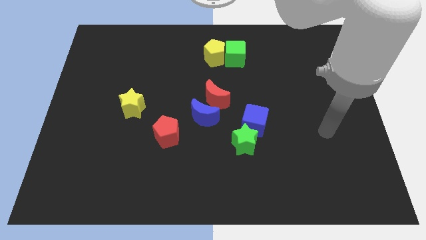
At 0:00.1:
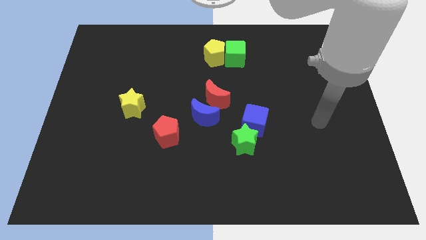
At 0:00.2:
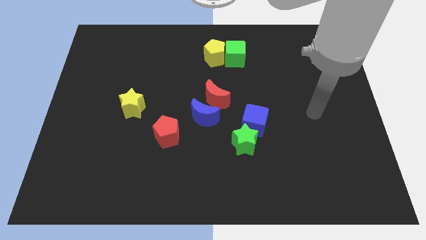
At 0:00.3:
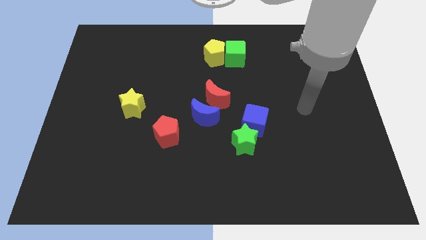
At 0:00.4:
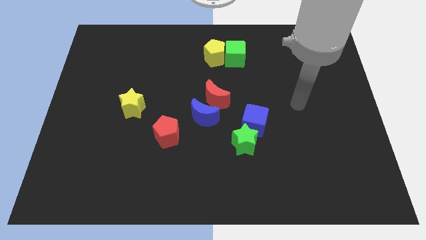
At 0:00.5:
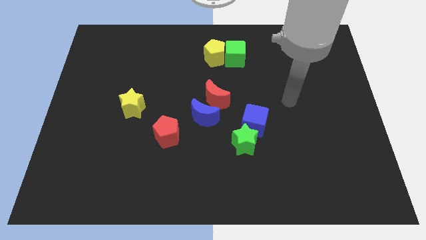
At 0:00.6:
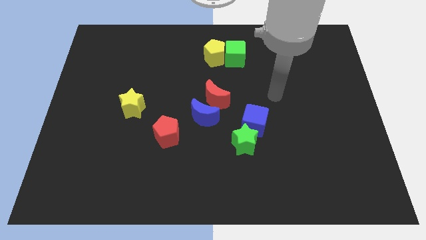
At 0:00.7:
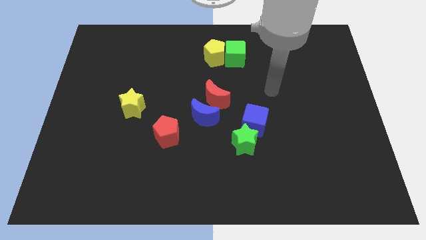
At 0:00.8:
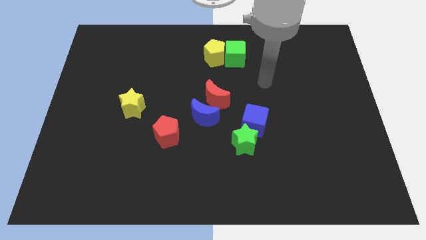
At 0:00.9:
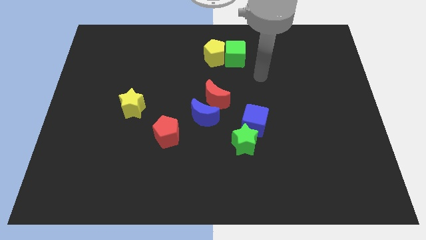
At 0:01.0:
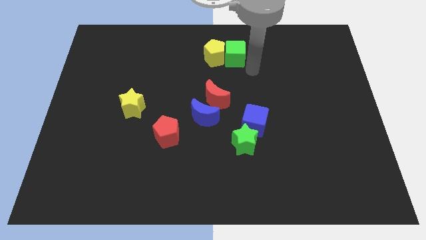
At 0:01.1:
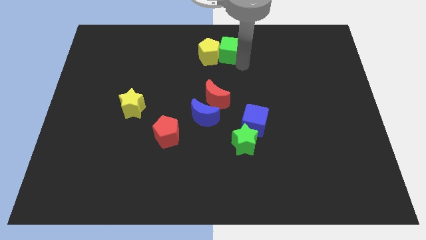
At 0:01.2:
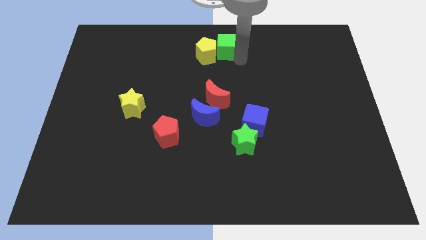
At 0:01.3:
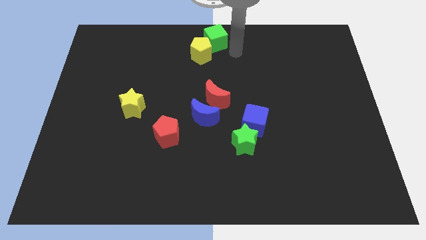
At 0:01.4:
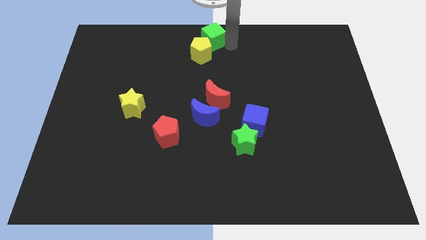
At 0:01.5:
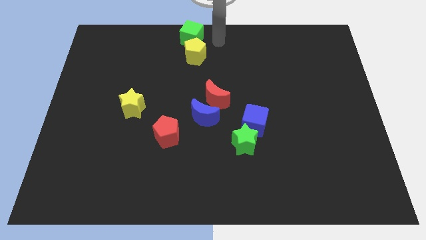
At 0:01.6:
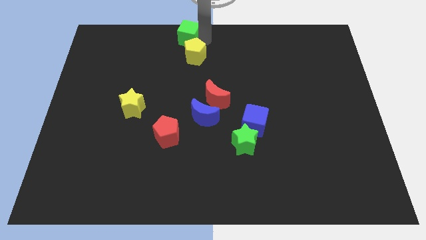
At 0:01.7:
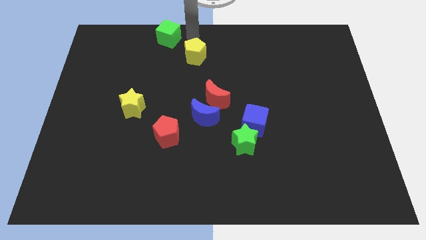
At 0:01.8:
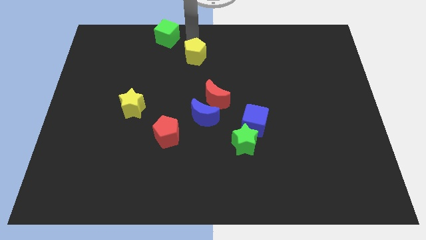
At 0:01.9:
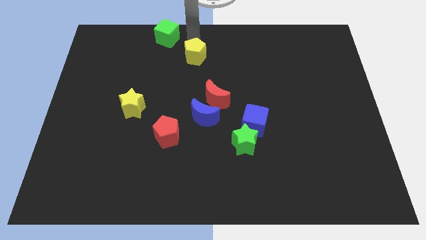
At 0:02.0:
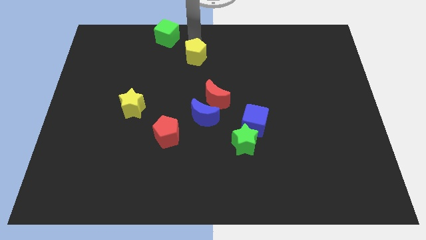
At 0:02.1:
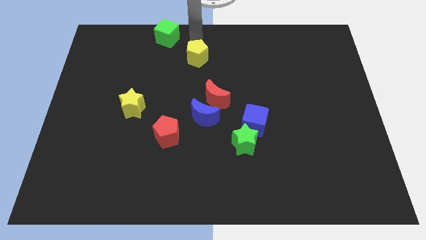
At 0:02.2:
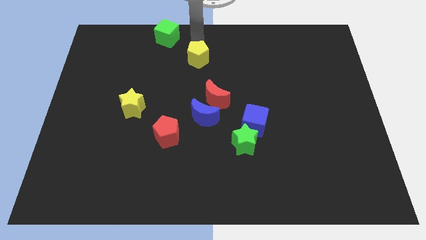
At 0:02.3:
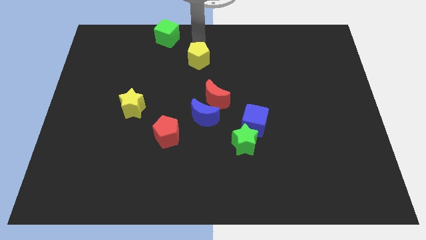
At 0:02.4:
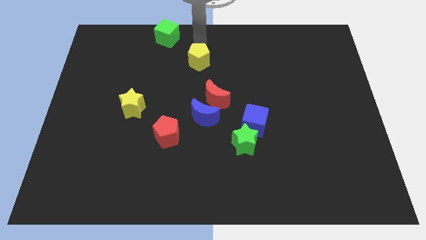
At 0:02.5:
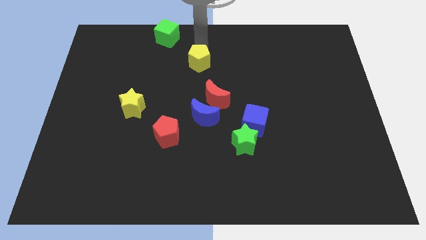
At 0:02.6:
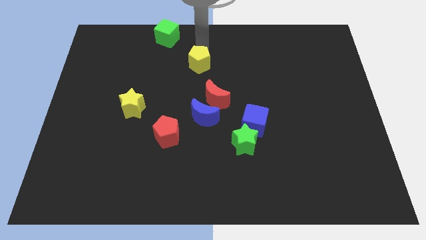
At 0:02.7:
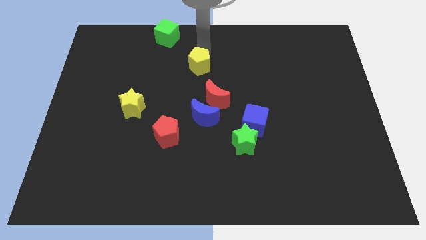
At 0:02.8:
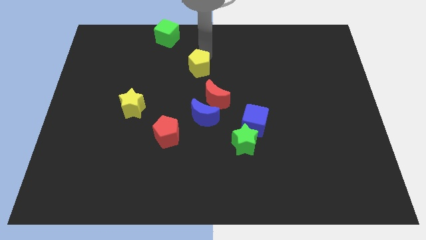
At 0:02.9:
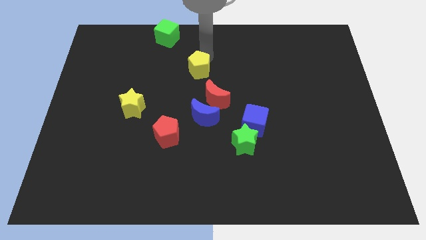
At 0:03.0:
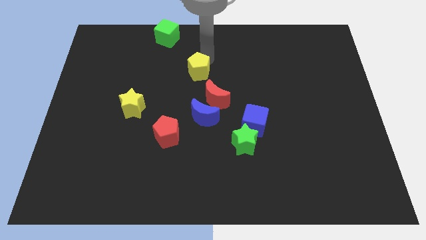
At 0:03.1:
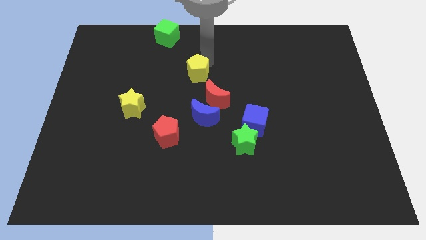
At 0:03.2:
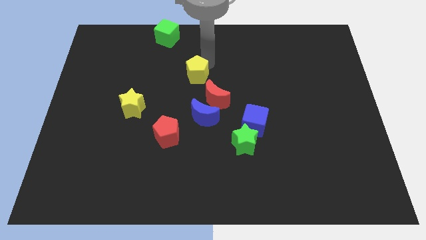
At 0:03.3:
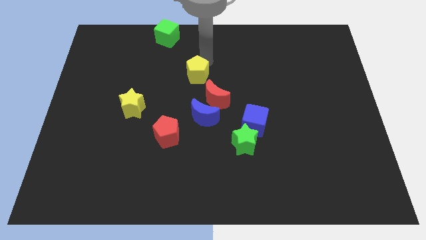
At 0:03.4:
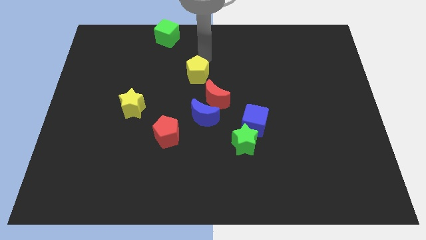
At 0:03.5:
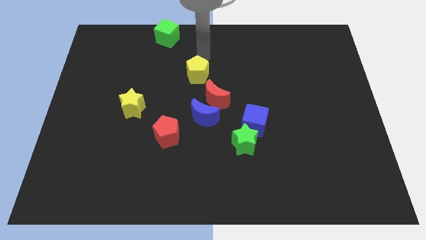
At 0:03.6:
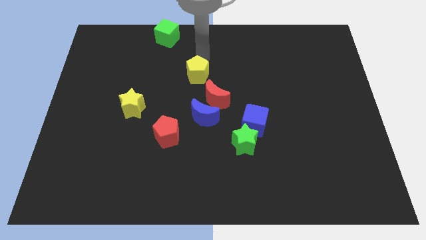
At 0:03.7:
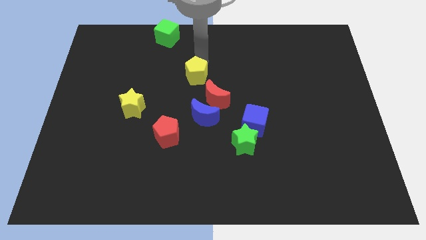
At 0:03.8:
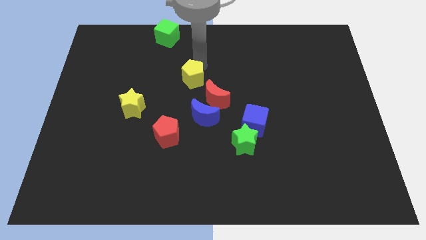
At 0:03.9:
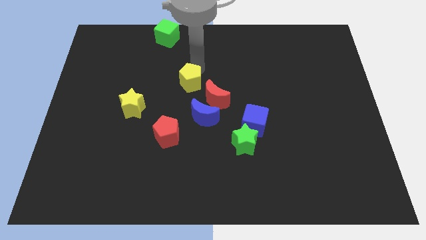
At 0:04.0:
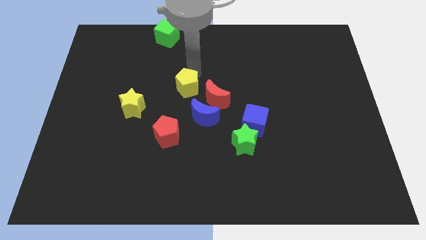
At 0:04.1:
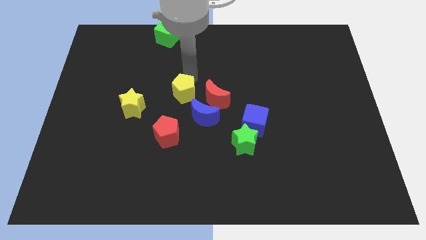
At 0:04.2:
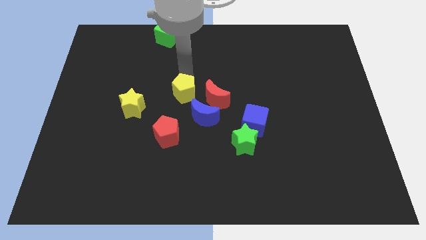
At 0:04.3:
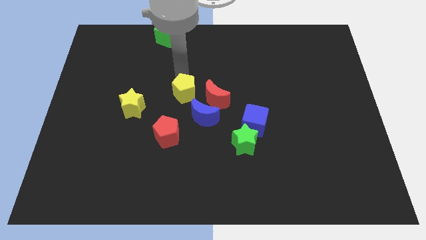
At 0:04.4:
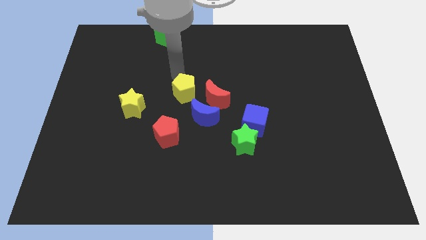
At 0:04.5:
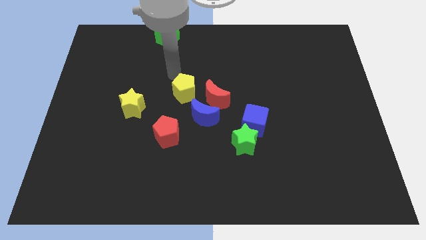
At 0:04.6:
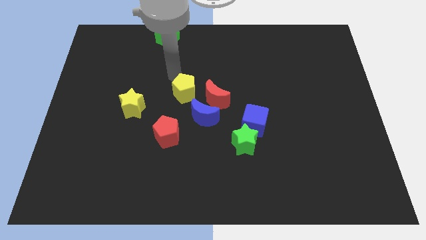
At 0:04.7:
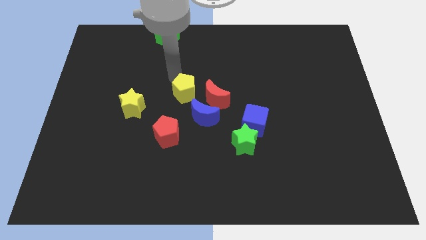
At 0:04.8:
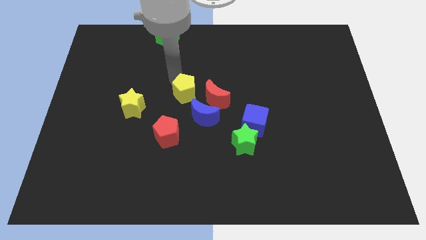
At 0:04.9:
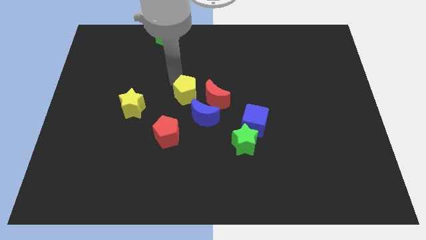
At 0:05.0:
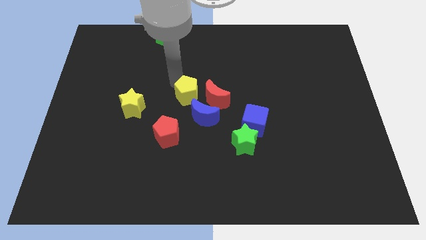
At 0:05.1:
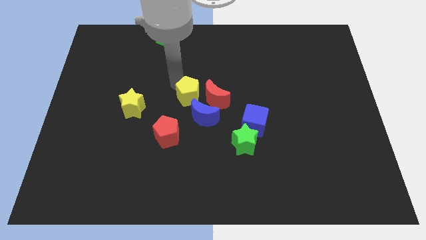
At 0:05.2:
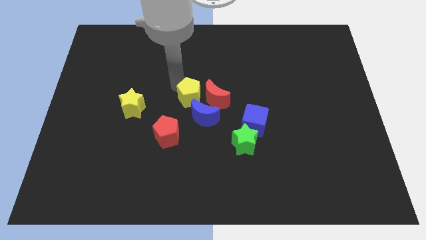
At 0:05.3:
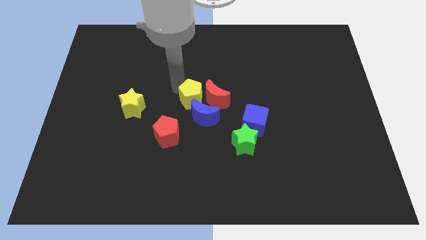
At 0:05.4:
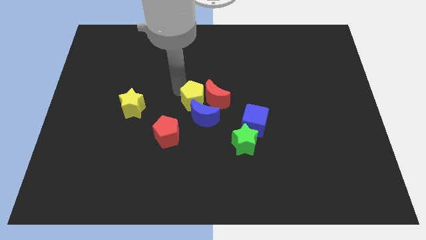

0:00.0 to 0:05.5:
push the yellow pentagon towards the blue moon

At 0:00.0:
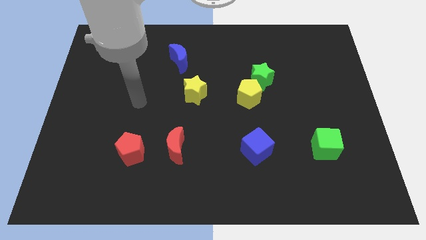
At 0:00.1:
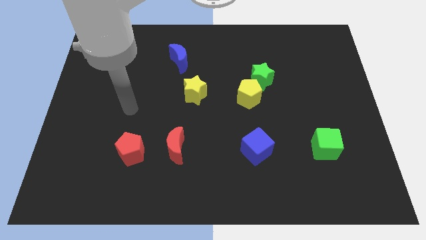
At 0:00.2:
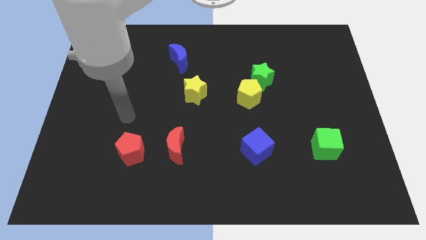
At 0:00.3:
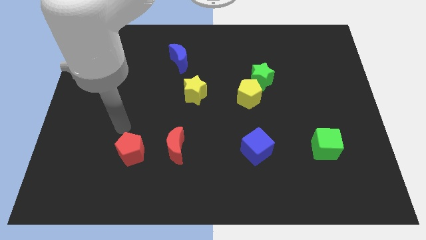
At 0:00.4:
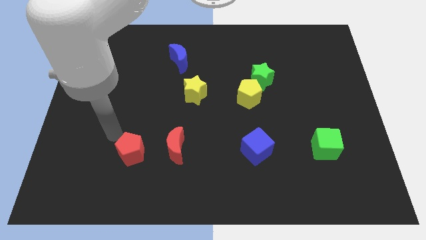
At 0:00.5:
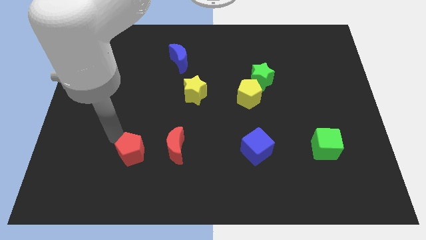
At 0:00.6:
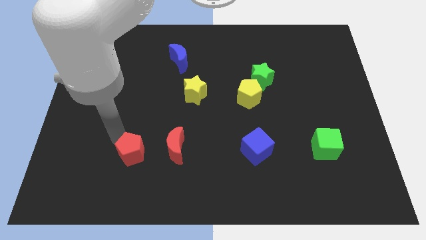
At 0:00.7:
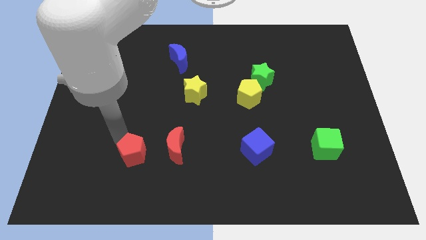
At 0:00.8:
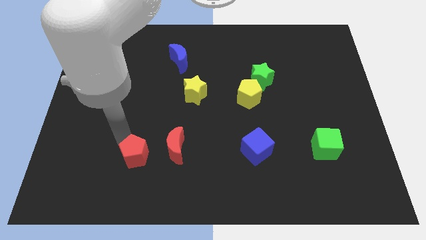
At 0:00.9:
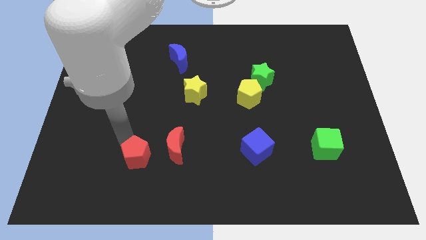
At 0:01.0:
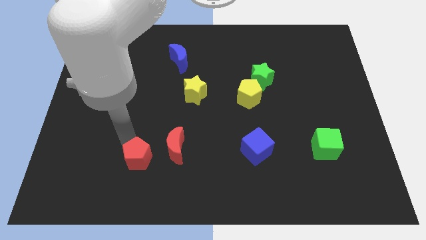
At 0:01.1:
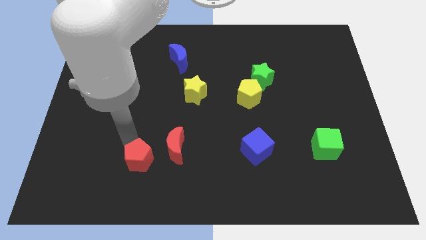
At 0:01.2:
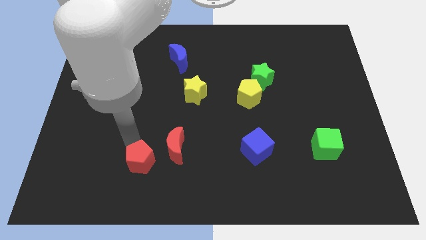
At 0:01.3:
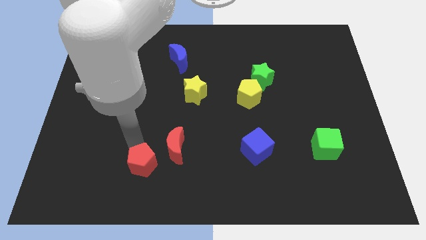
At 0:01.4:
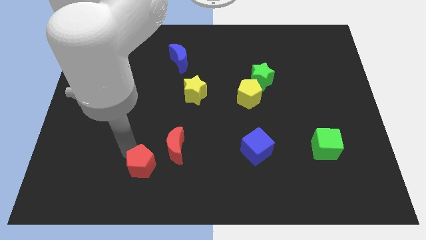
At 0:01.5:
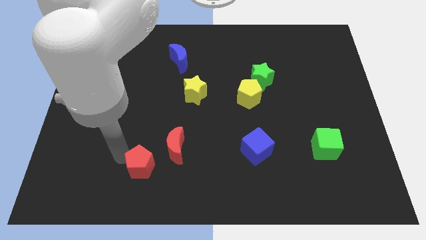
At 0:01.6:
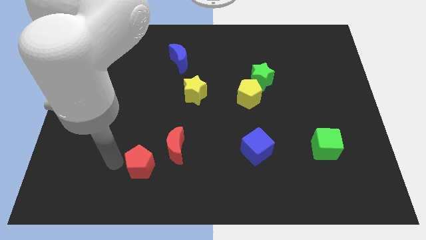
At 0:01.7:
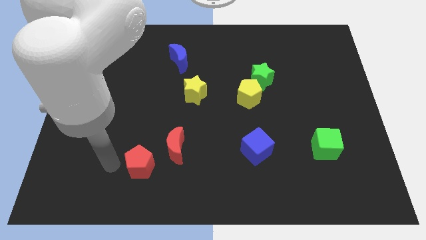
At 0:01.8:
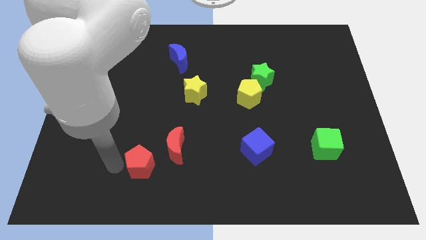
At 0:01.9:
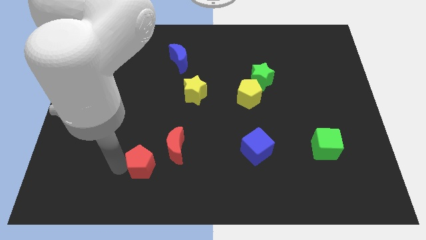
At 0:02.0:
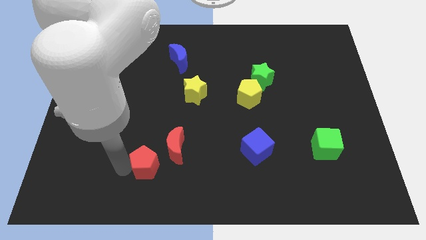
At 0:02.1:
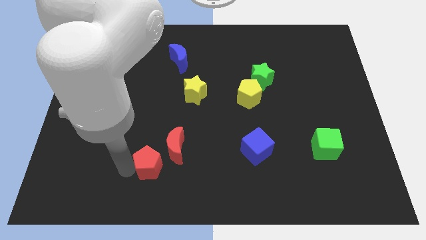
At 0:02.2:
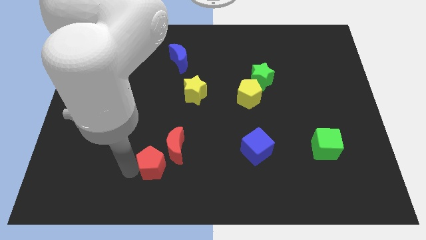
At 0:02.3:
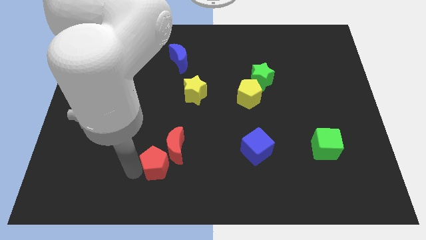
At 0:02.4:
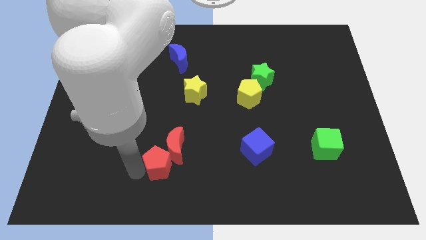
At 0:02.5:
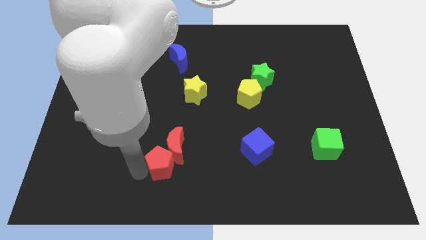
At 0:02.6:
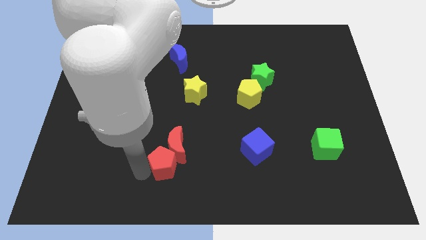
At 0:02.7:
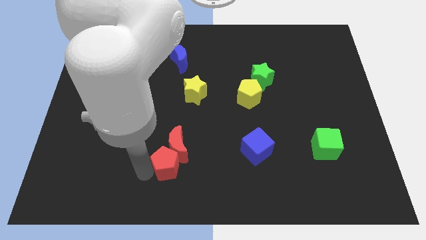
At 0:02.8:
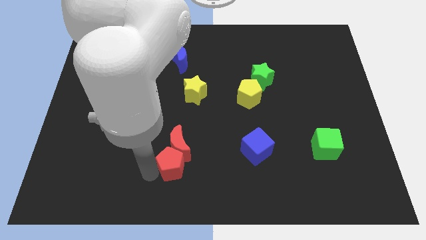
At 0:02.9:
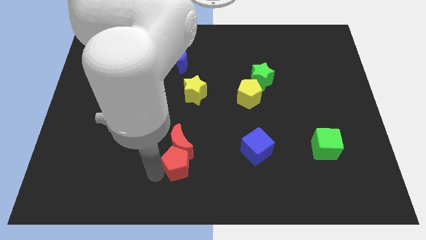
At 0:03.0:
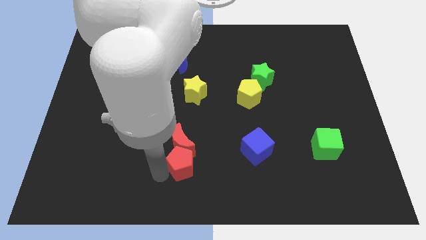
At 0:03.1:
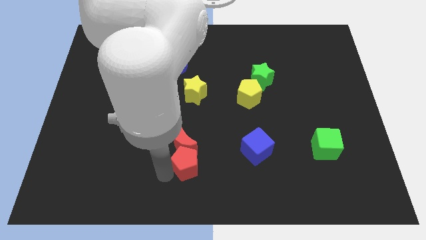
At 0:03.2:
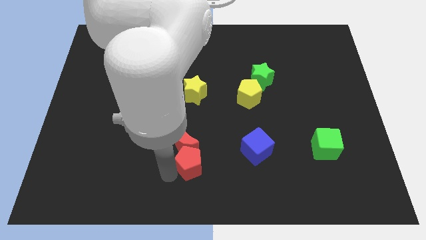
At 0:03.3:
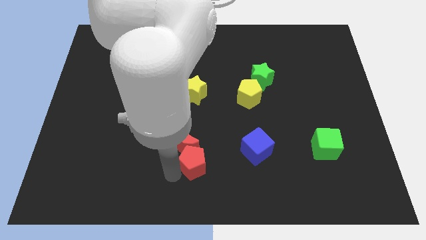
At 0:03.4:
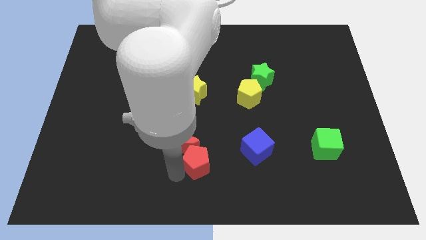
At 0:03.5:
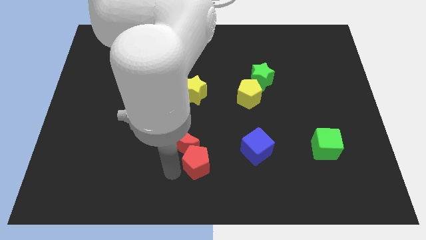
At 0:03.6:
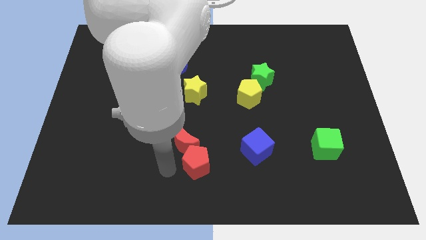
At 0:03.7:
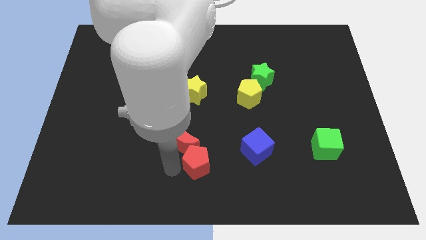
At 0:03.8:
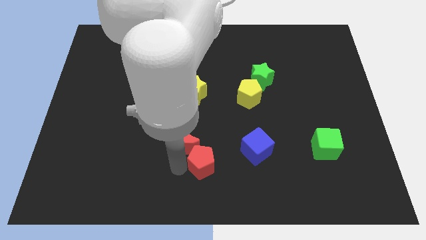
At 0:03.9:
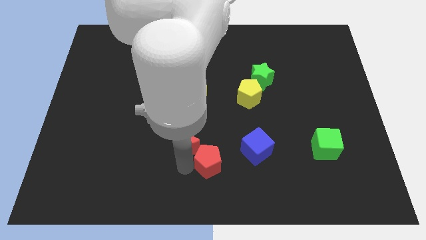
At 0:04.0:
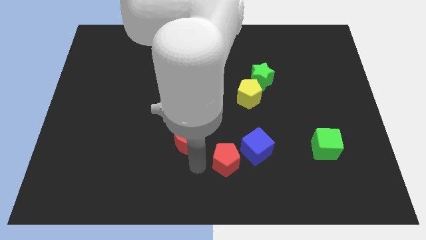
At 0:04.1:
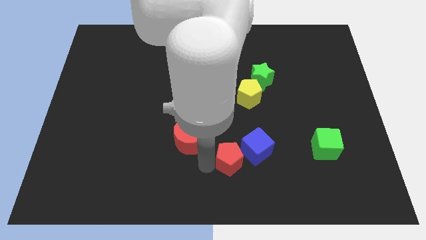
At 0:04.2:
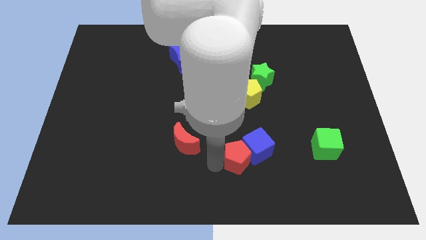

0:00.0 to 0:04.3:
push the red pentagon next to the blue cube
